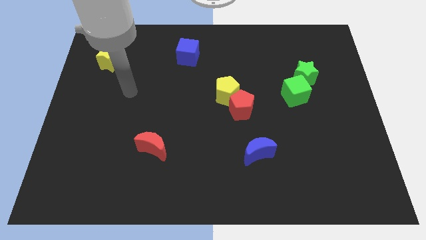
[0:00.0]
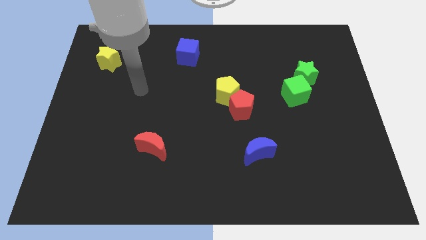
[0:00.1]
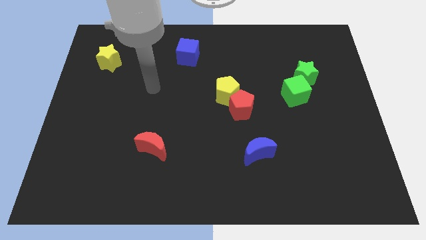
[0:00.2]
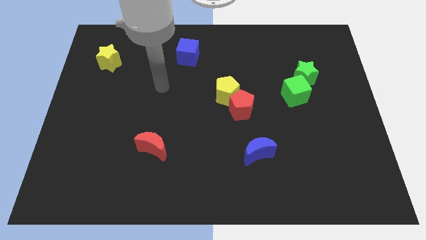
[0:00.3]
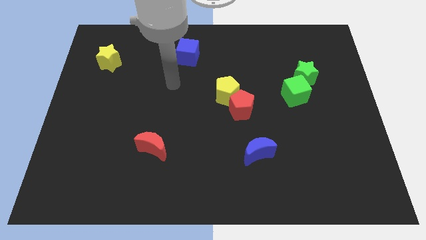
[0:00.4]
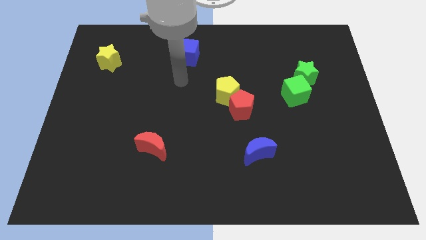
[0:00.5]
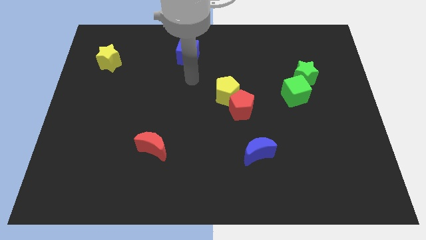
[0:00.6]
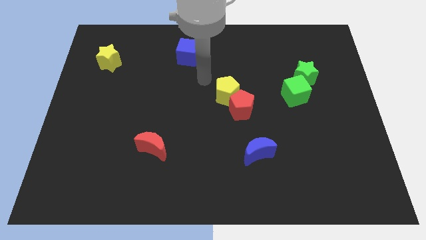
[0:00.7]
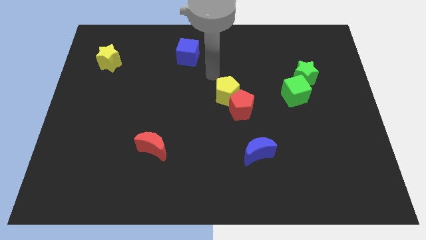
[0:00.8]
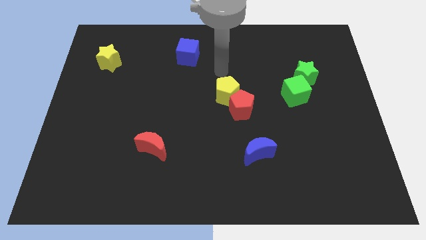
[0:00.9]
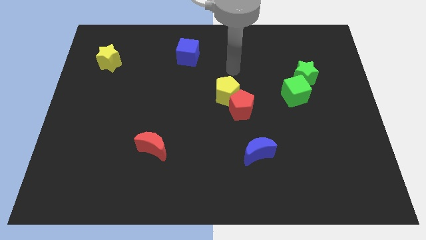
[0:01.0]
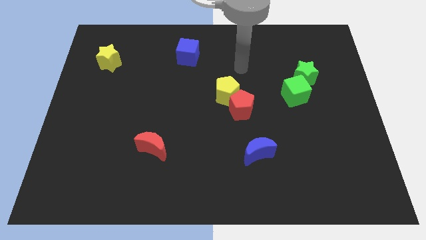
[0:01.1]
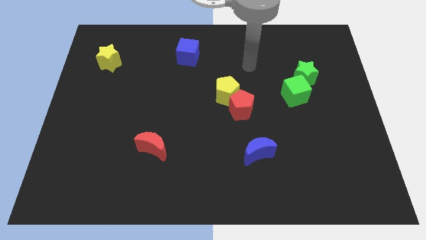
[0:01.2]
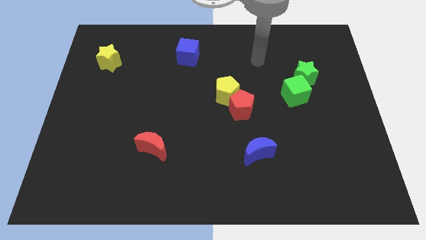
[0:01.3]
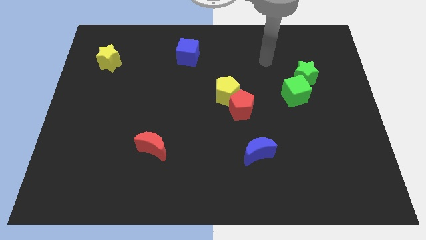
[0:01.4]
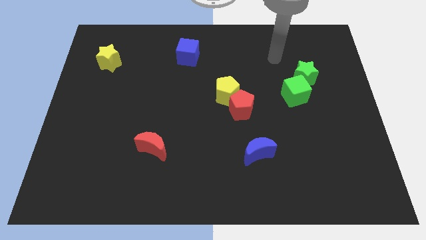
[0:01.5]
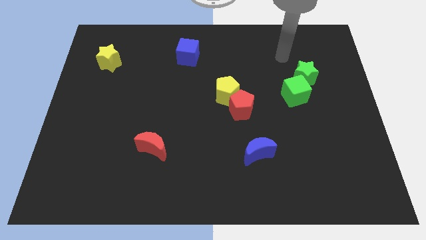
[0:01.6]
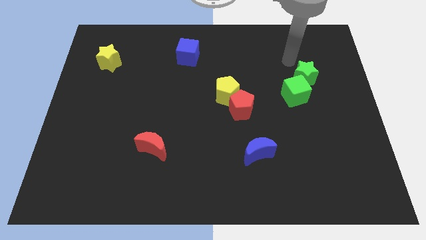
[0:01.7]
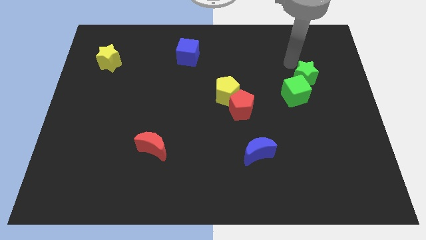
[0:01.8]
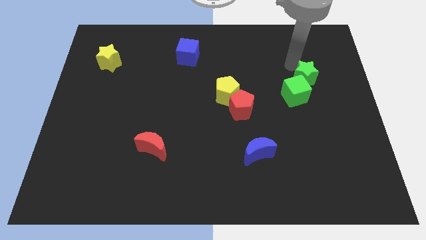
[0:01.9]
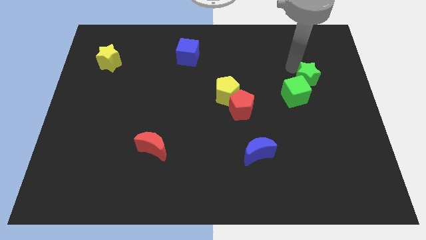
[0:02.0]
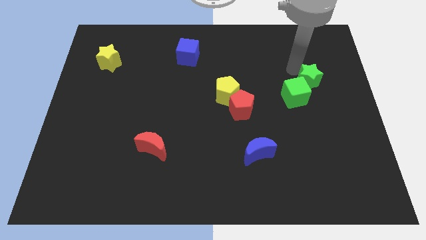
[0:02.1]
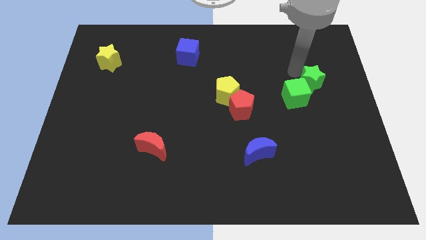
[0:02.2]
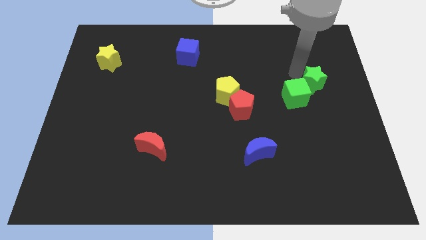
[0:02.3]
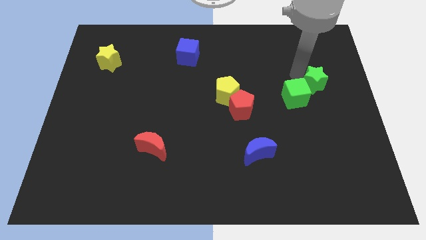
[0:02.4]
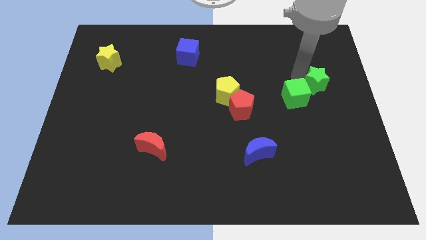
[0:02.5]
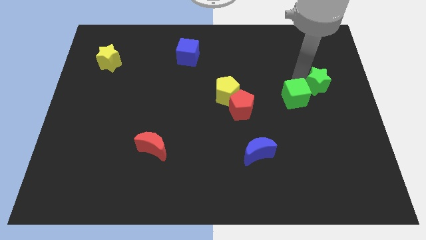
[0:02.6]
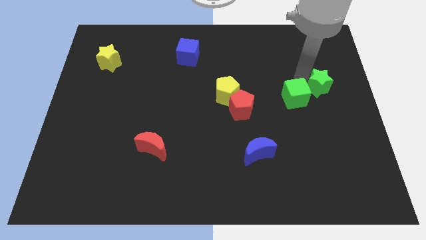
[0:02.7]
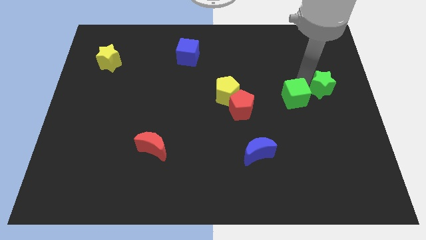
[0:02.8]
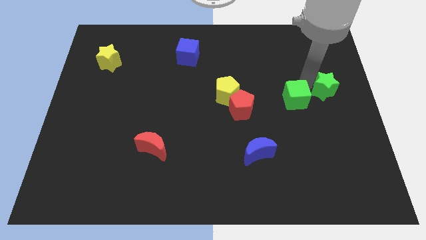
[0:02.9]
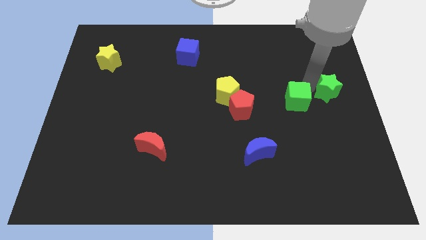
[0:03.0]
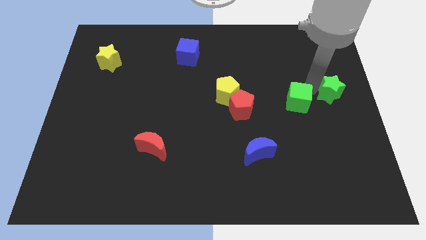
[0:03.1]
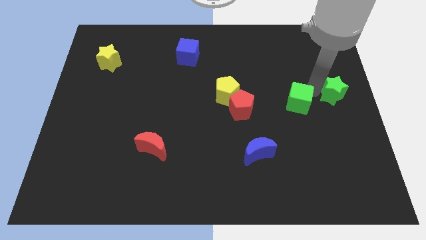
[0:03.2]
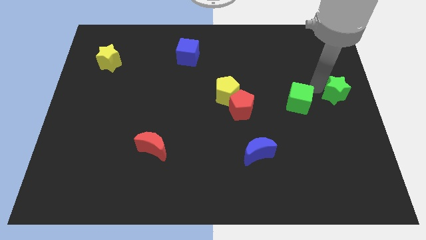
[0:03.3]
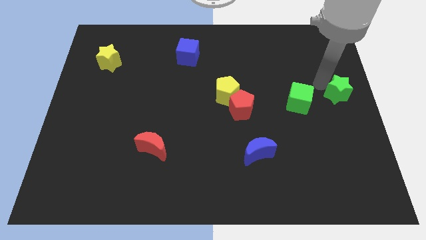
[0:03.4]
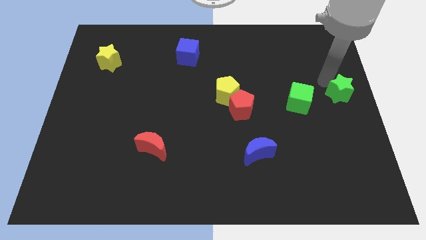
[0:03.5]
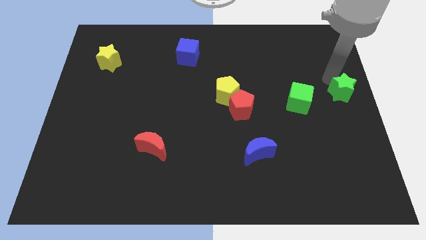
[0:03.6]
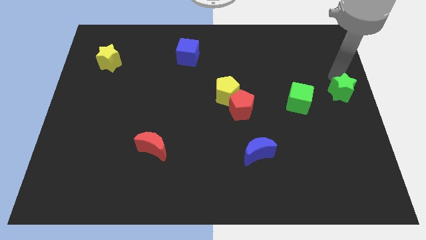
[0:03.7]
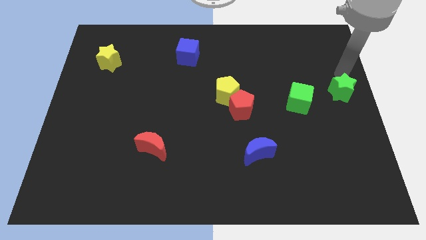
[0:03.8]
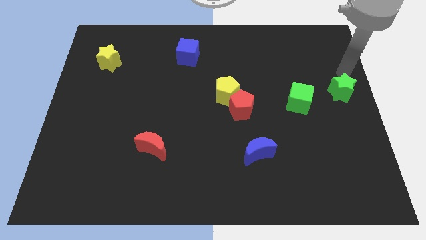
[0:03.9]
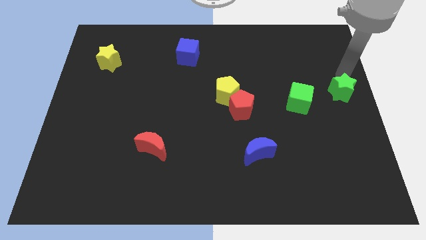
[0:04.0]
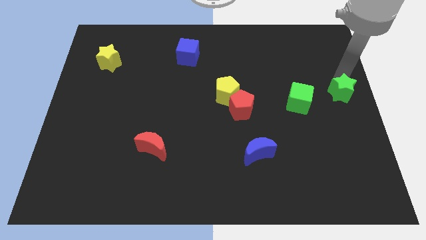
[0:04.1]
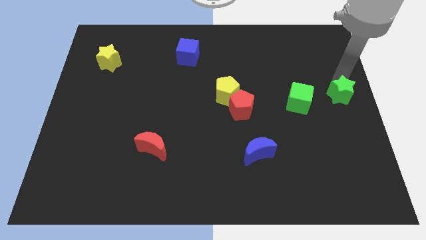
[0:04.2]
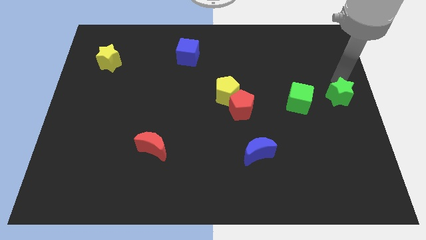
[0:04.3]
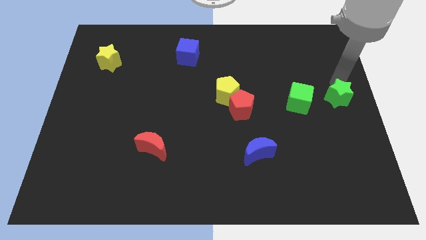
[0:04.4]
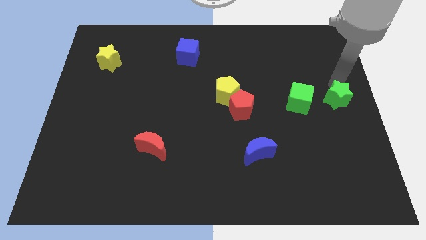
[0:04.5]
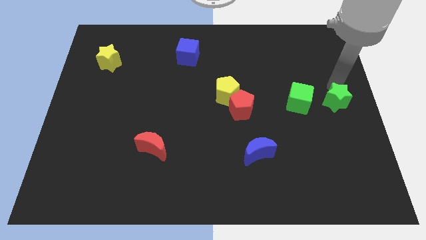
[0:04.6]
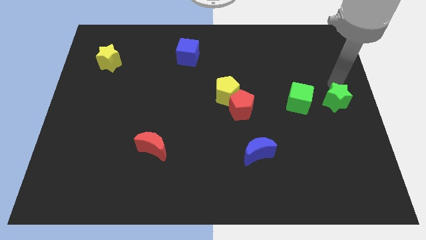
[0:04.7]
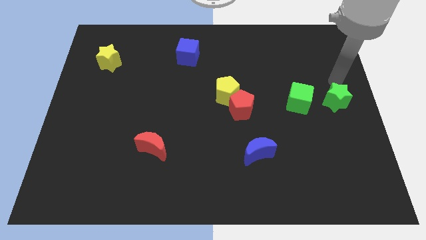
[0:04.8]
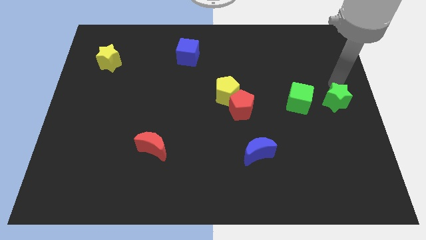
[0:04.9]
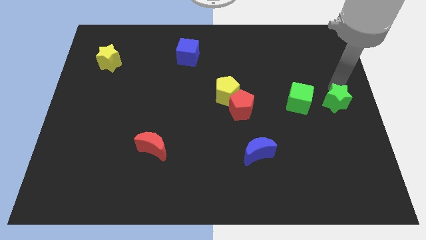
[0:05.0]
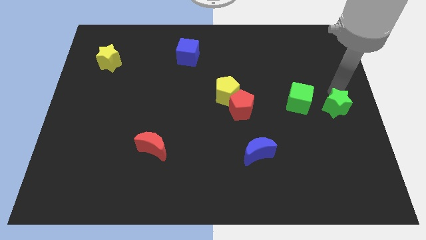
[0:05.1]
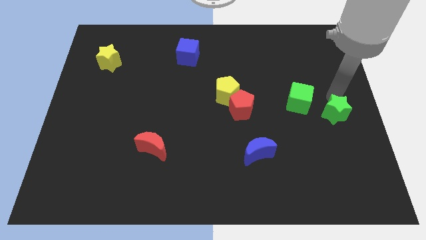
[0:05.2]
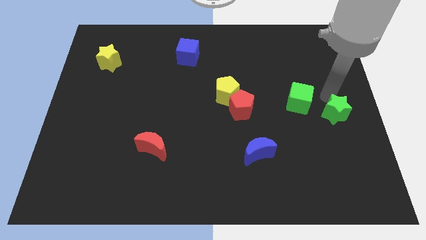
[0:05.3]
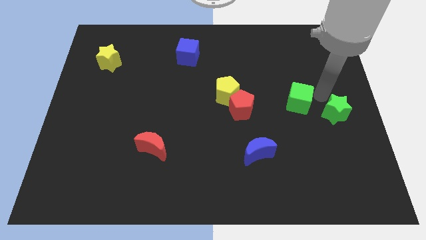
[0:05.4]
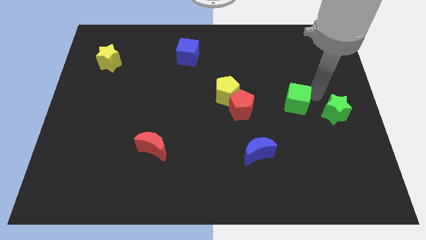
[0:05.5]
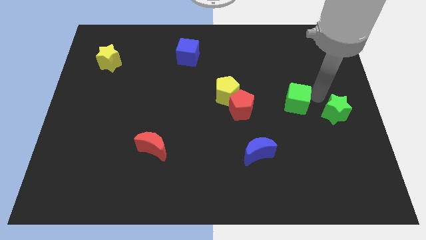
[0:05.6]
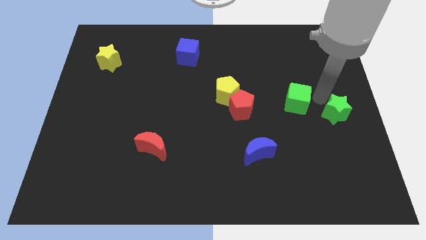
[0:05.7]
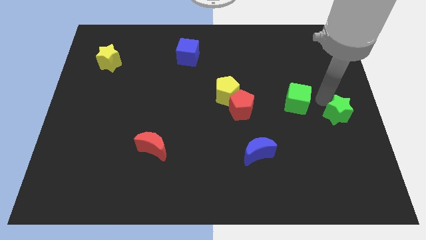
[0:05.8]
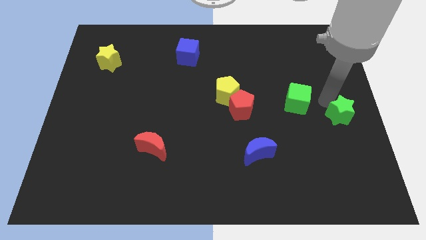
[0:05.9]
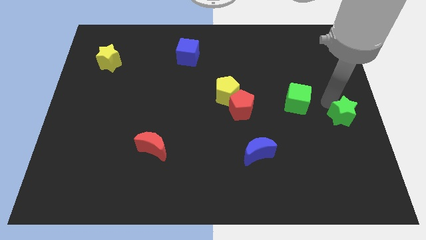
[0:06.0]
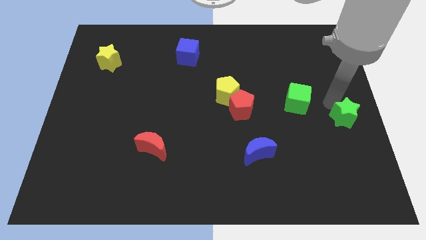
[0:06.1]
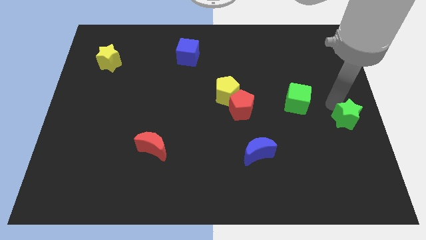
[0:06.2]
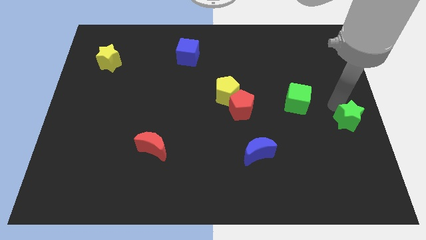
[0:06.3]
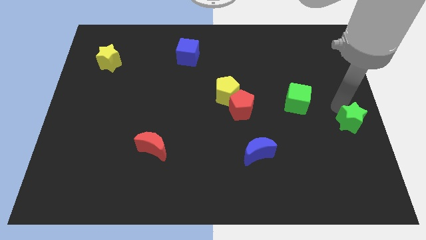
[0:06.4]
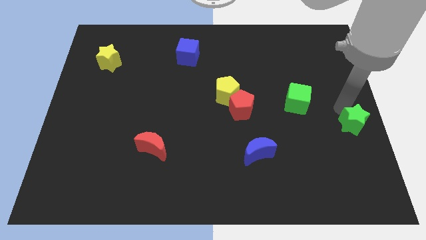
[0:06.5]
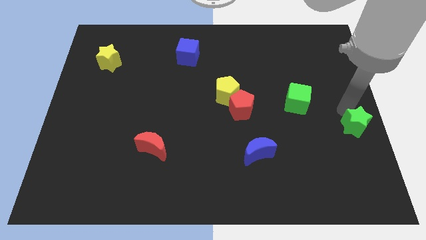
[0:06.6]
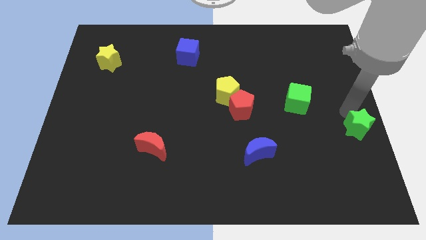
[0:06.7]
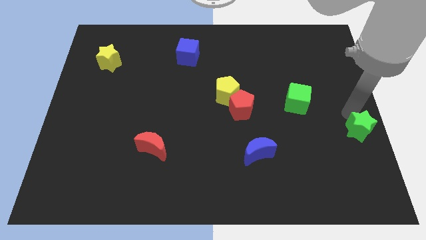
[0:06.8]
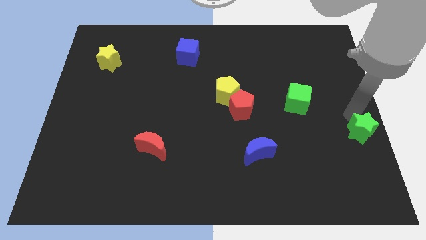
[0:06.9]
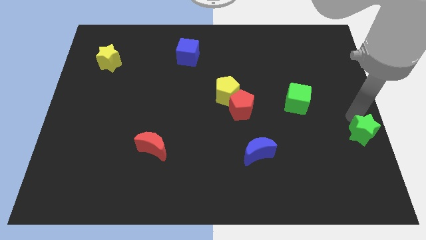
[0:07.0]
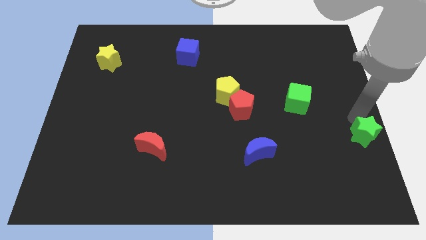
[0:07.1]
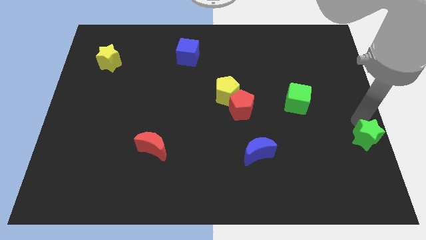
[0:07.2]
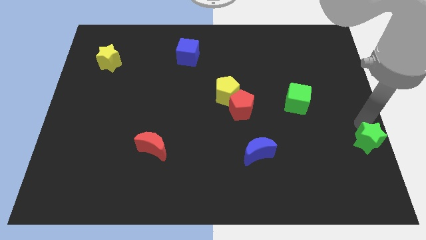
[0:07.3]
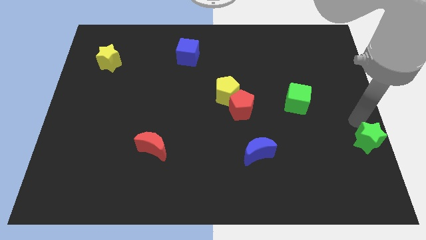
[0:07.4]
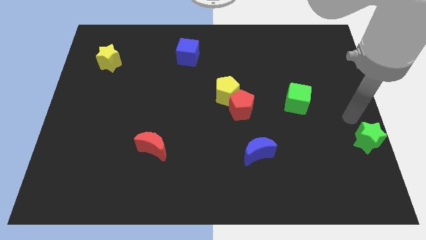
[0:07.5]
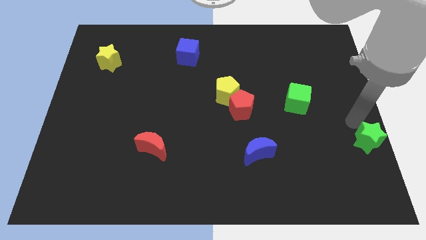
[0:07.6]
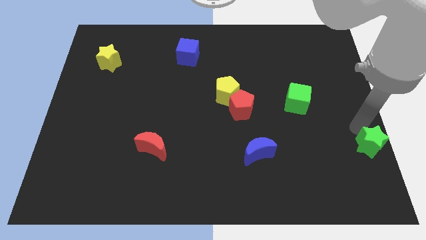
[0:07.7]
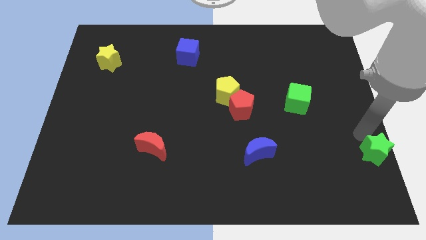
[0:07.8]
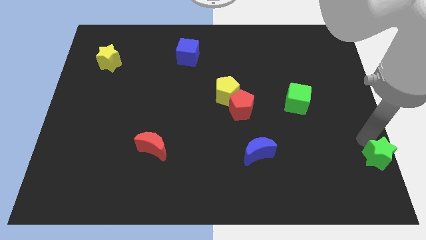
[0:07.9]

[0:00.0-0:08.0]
push the green star to the bottom right of the board
